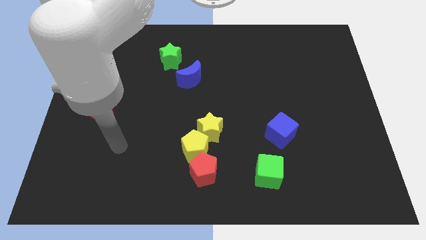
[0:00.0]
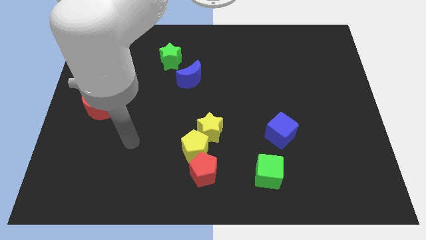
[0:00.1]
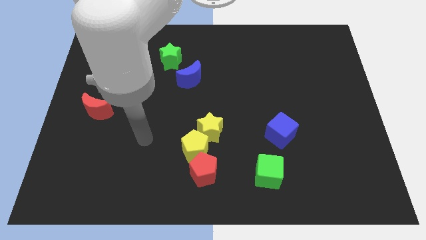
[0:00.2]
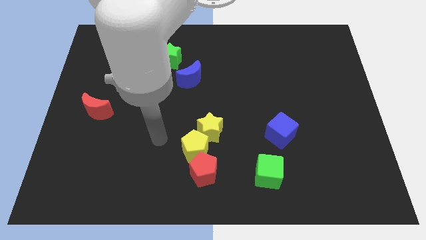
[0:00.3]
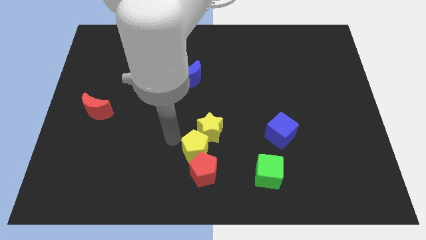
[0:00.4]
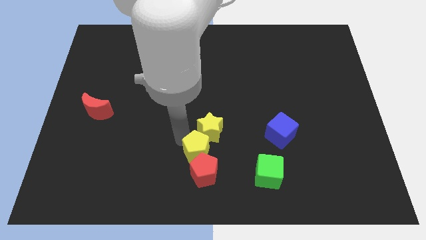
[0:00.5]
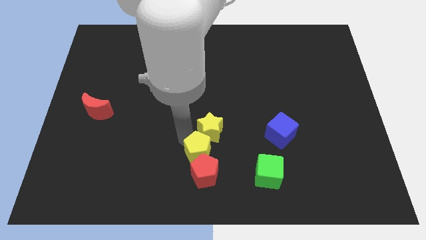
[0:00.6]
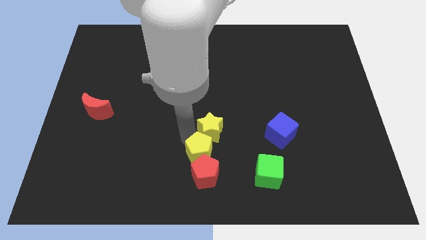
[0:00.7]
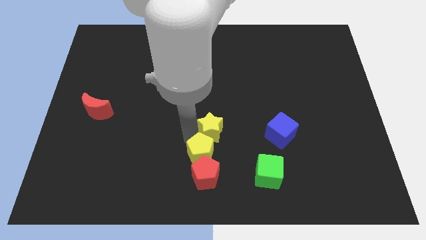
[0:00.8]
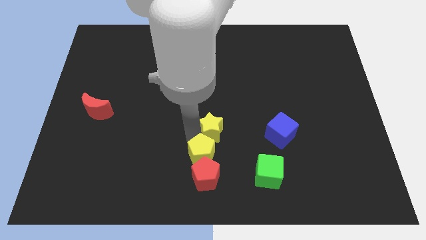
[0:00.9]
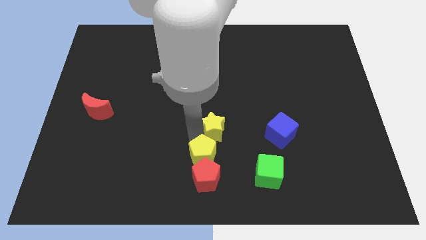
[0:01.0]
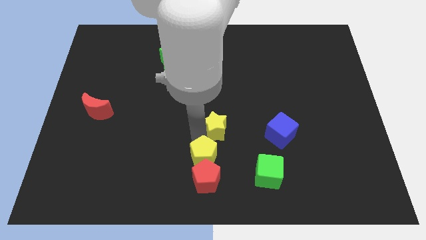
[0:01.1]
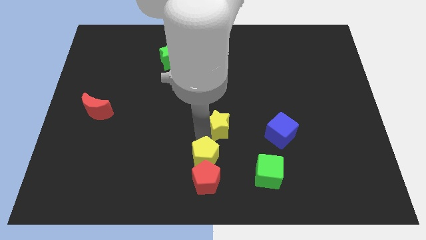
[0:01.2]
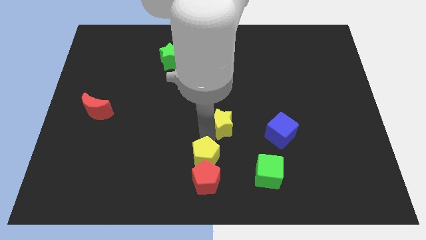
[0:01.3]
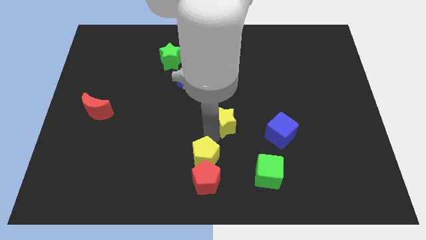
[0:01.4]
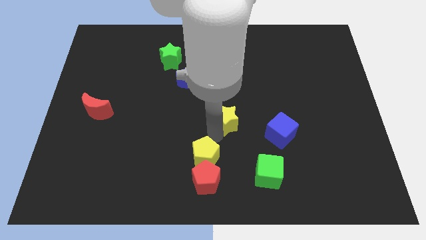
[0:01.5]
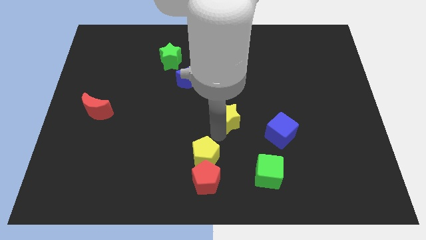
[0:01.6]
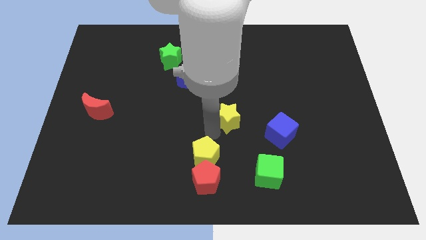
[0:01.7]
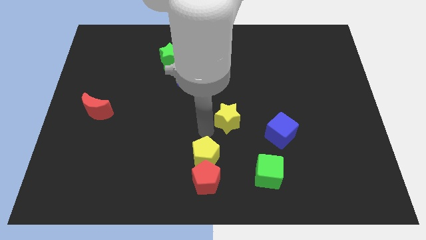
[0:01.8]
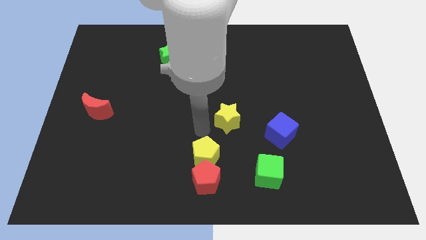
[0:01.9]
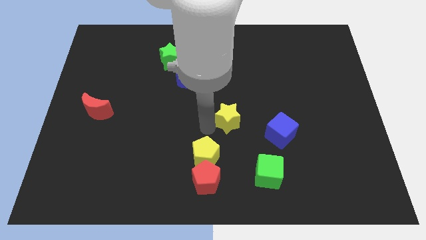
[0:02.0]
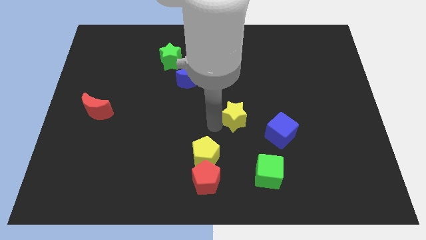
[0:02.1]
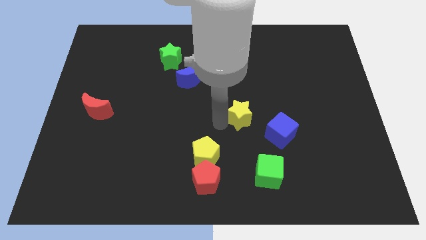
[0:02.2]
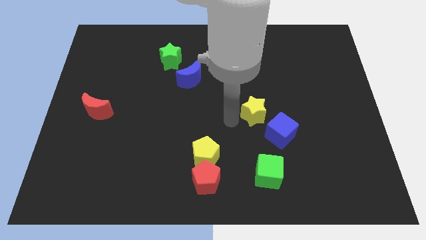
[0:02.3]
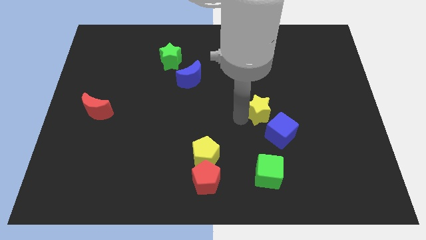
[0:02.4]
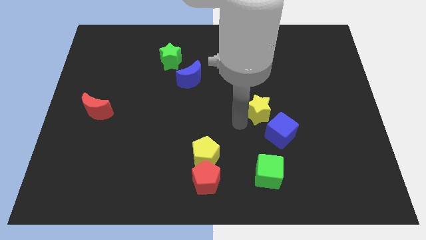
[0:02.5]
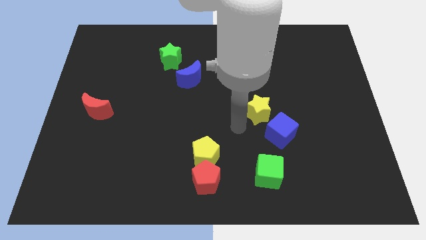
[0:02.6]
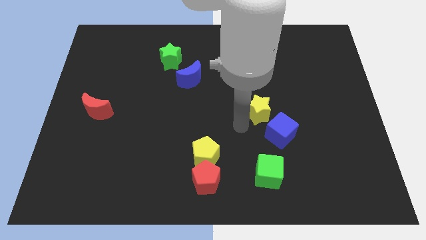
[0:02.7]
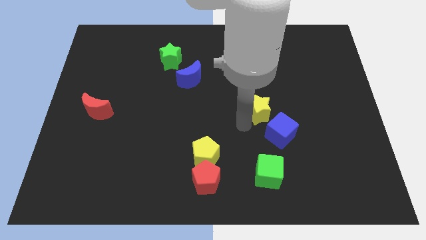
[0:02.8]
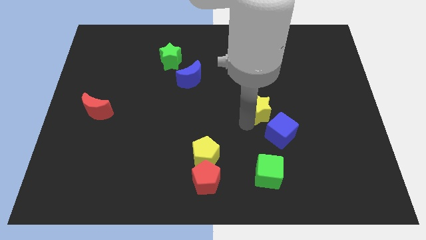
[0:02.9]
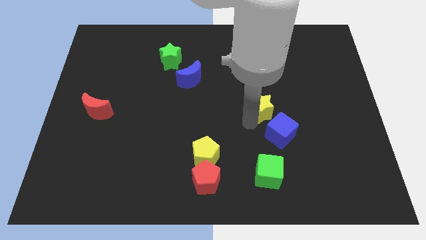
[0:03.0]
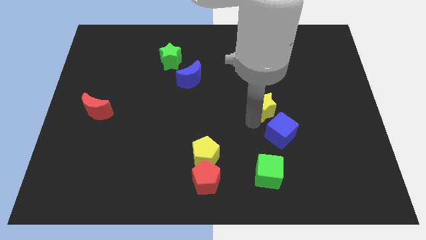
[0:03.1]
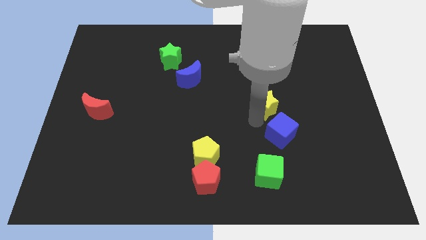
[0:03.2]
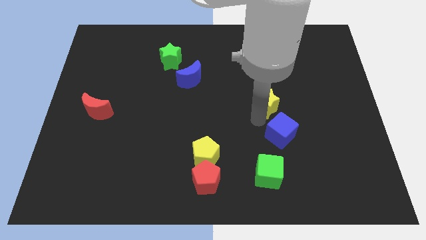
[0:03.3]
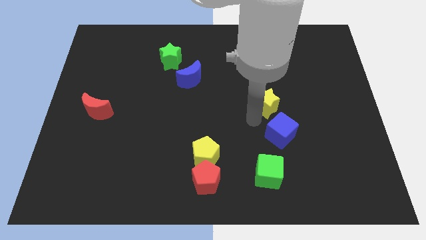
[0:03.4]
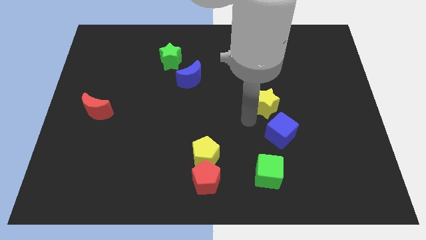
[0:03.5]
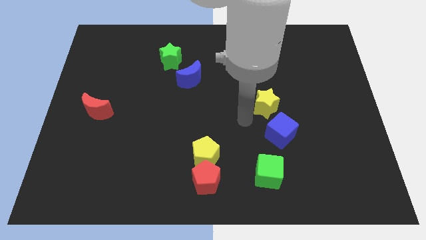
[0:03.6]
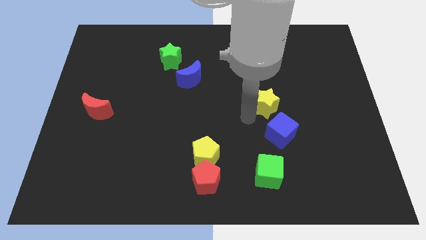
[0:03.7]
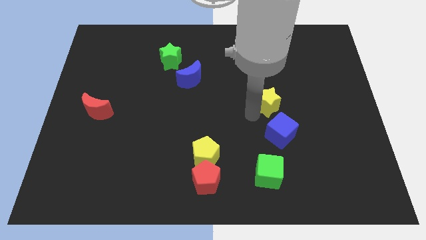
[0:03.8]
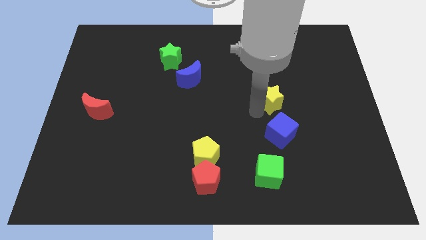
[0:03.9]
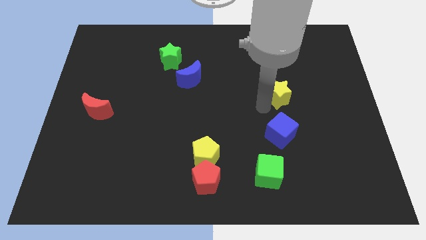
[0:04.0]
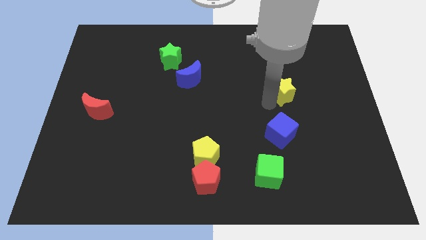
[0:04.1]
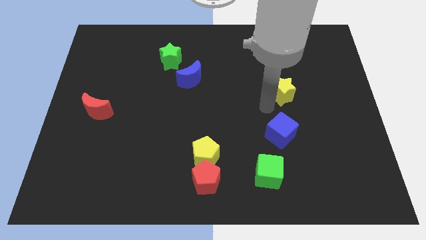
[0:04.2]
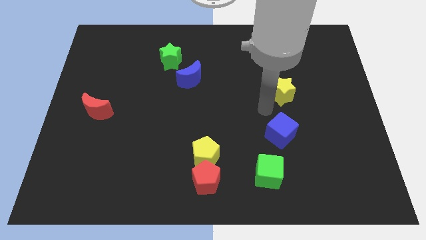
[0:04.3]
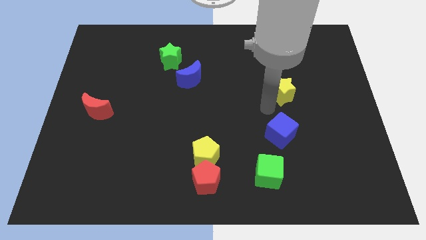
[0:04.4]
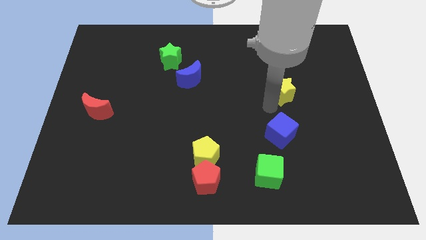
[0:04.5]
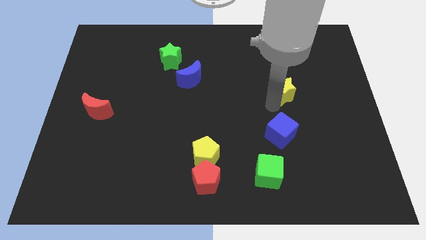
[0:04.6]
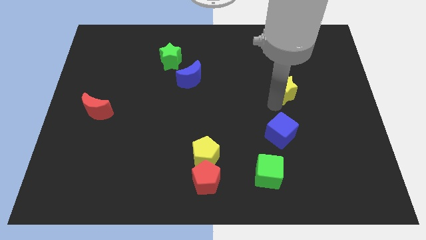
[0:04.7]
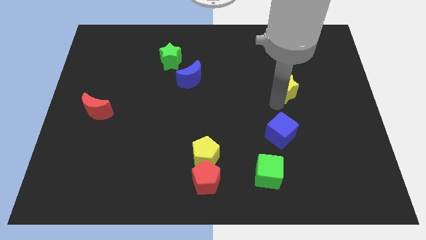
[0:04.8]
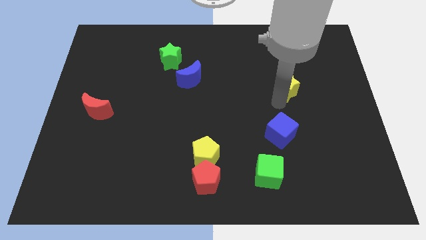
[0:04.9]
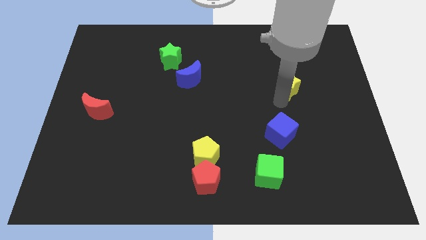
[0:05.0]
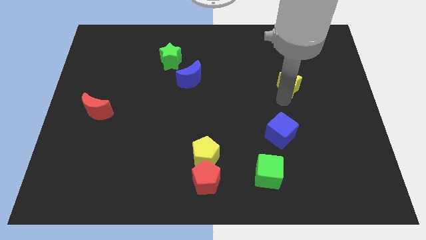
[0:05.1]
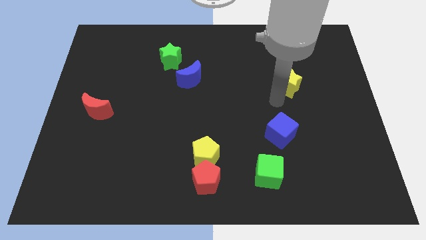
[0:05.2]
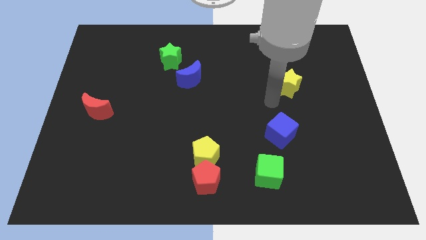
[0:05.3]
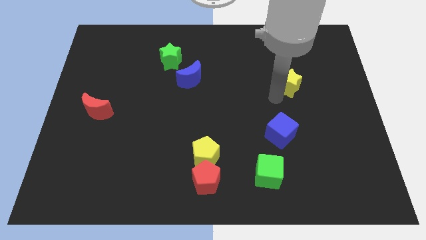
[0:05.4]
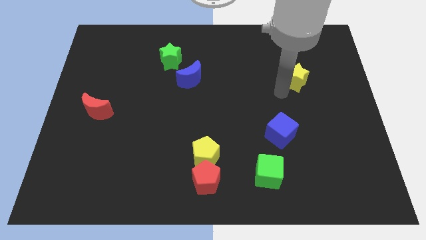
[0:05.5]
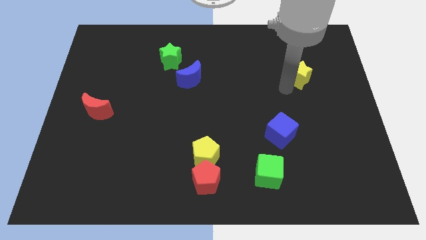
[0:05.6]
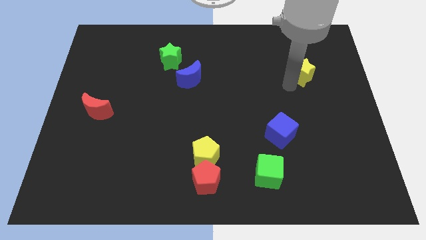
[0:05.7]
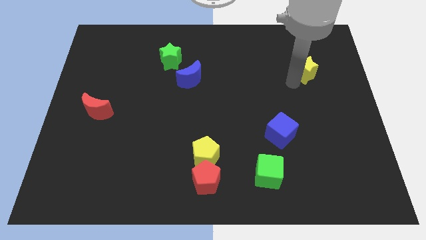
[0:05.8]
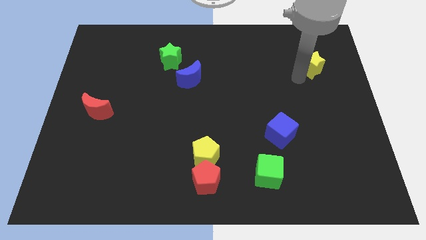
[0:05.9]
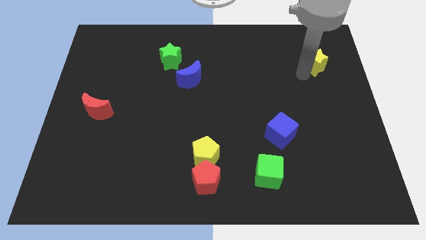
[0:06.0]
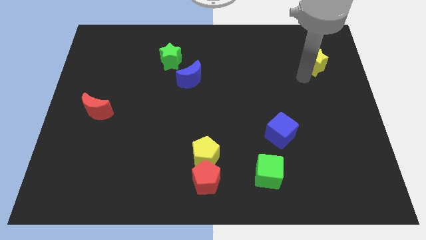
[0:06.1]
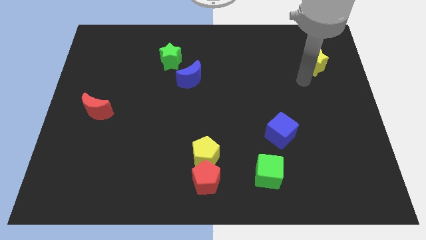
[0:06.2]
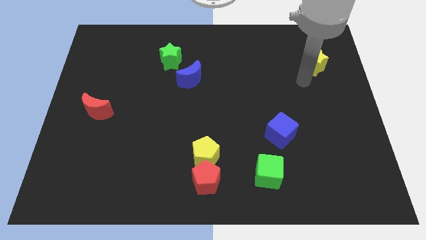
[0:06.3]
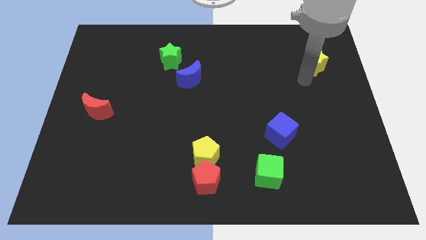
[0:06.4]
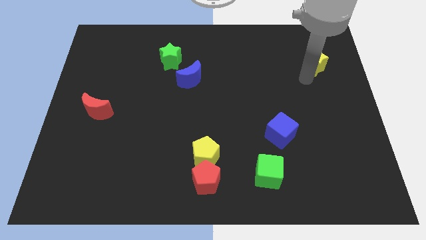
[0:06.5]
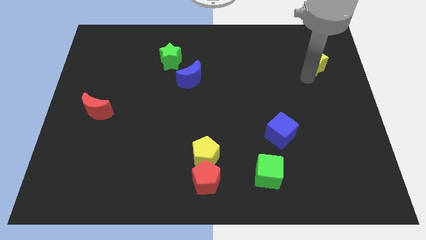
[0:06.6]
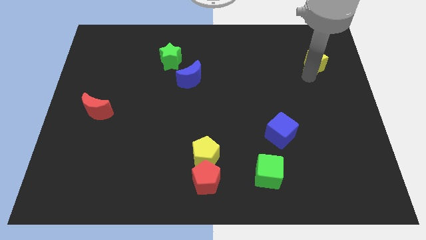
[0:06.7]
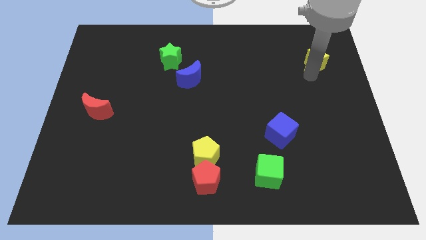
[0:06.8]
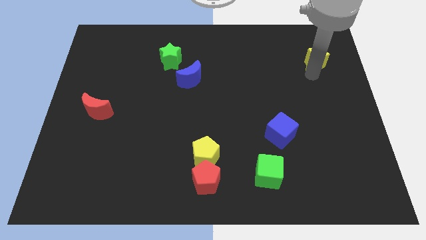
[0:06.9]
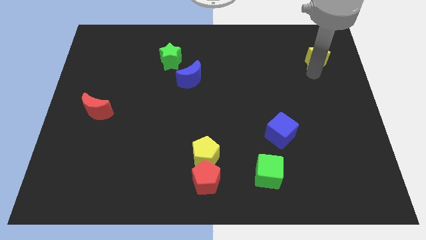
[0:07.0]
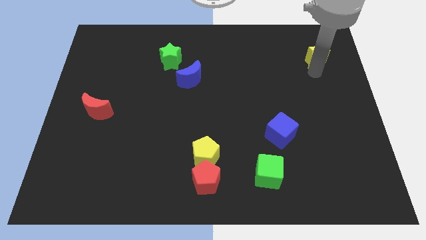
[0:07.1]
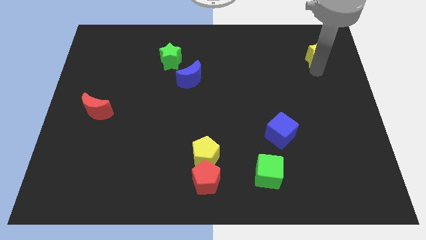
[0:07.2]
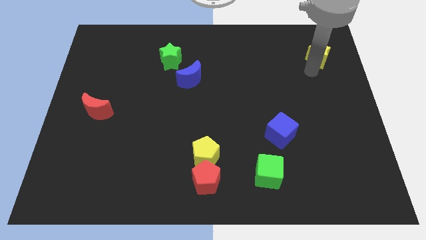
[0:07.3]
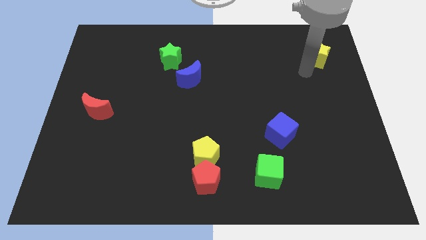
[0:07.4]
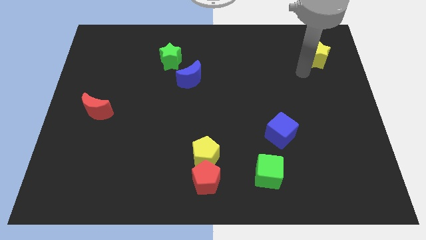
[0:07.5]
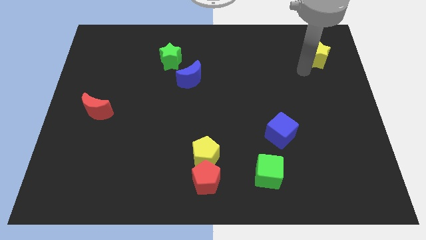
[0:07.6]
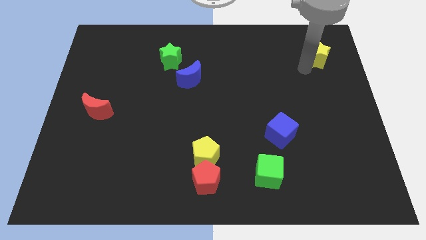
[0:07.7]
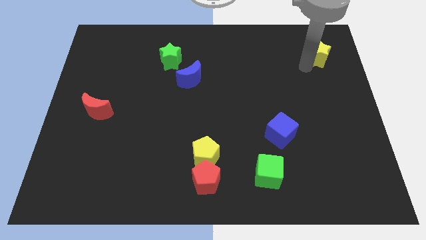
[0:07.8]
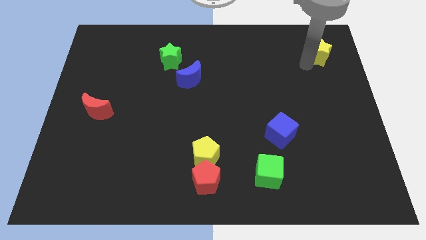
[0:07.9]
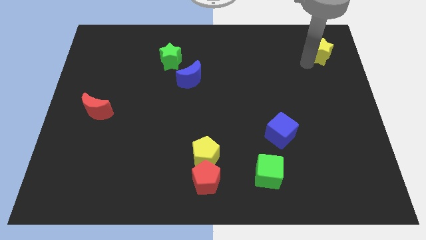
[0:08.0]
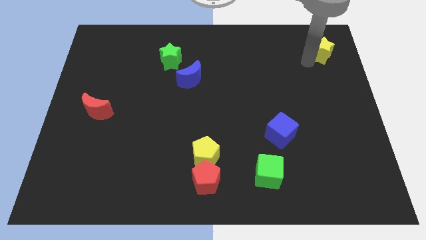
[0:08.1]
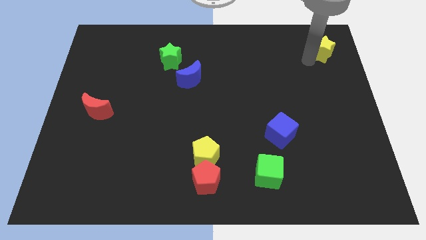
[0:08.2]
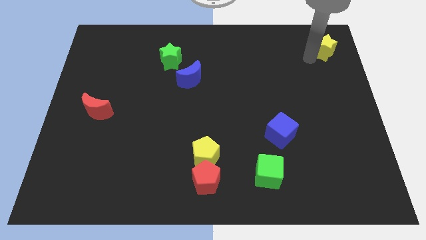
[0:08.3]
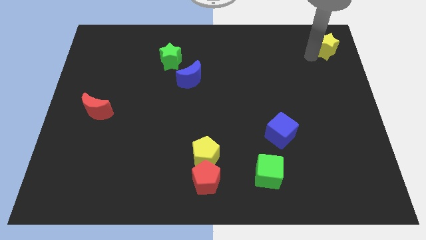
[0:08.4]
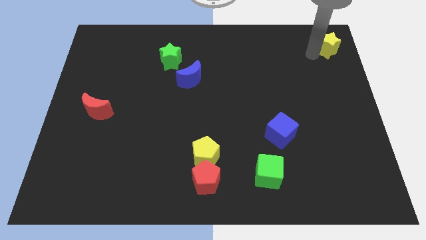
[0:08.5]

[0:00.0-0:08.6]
slide the yellow star to the top right
